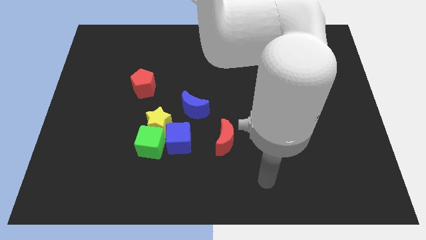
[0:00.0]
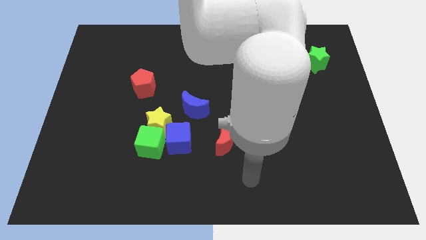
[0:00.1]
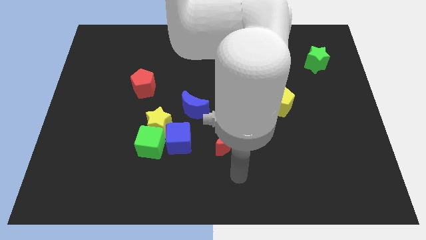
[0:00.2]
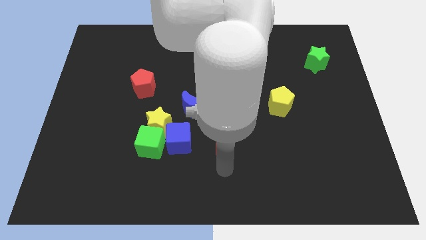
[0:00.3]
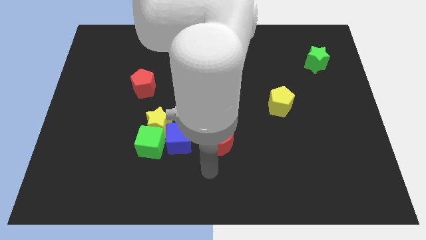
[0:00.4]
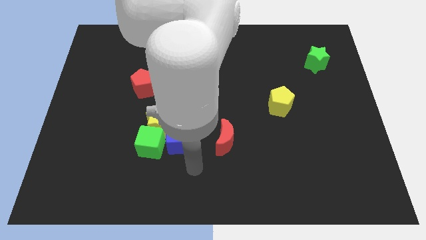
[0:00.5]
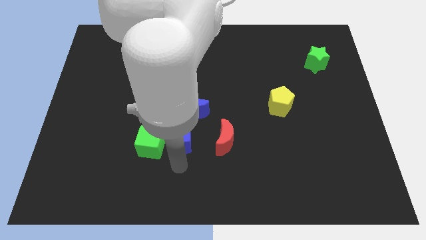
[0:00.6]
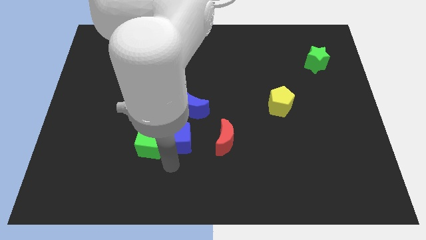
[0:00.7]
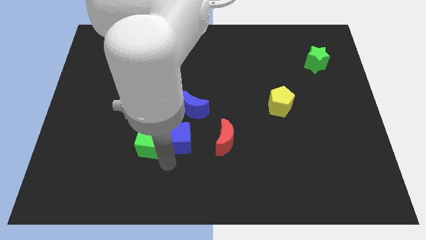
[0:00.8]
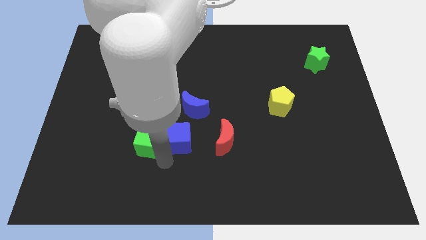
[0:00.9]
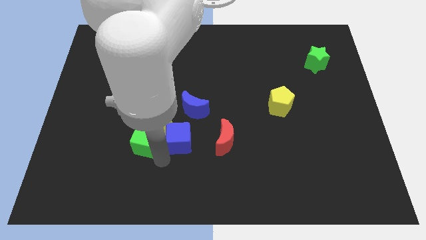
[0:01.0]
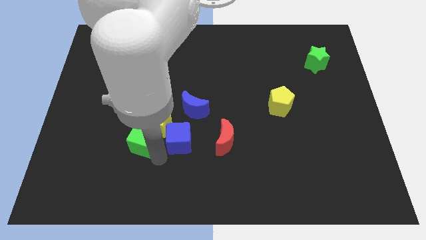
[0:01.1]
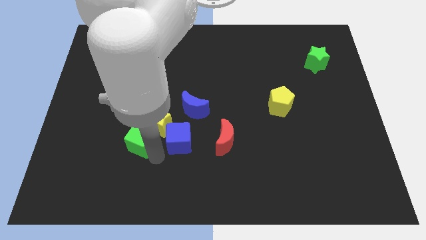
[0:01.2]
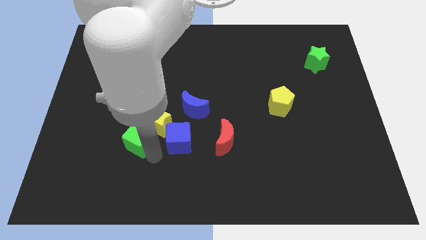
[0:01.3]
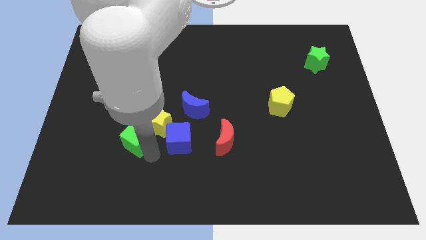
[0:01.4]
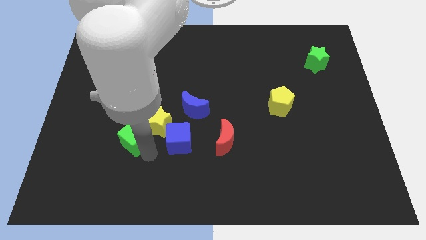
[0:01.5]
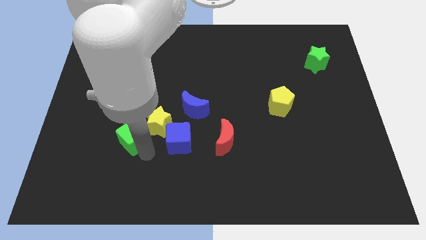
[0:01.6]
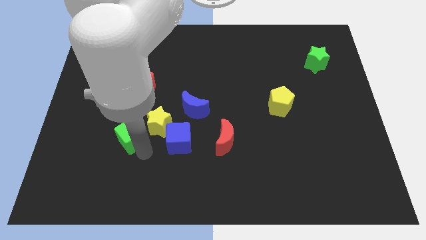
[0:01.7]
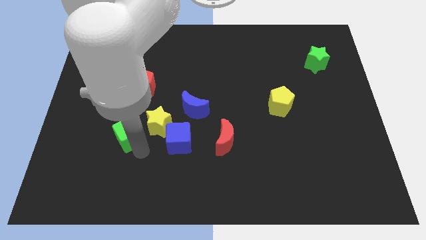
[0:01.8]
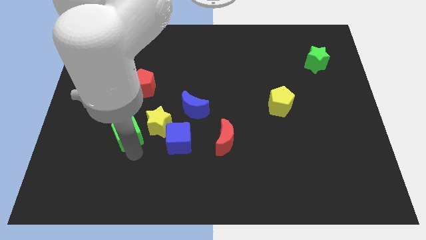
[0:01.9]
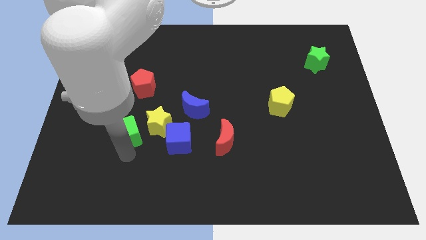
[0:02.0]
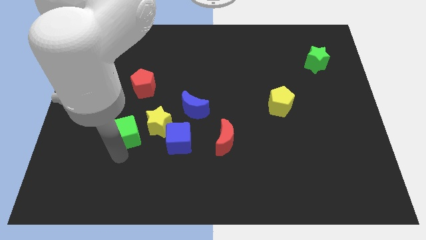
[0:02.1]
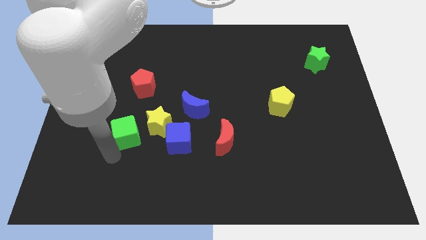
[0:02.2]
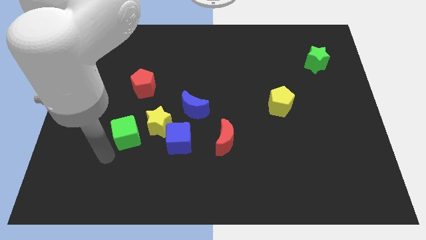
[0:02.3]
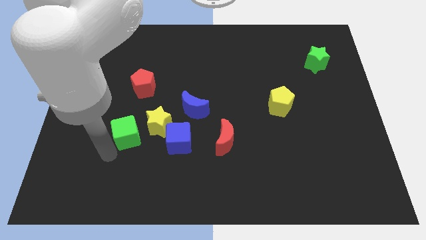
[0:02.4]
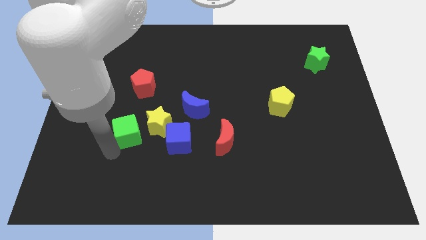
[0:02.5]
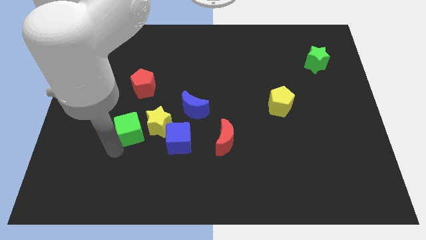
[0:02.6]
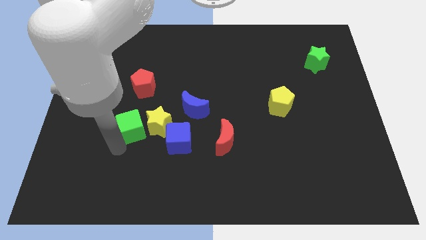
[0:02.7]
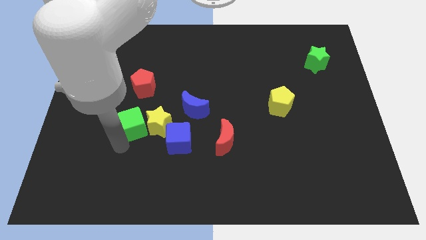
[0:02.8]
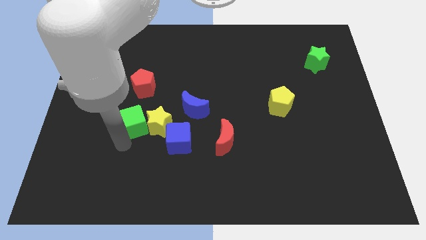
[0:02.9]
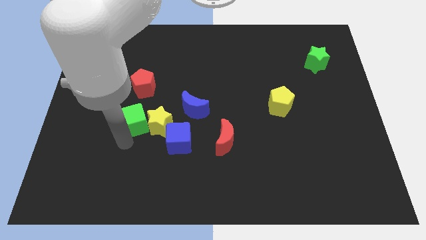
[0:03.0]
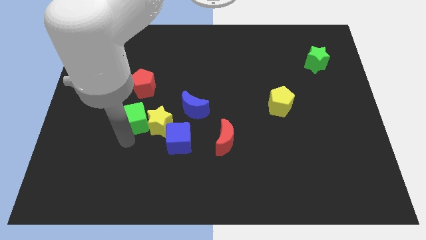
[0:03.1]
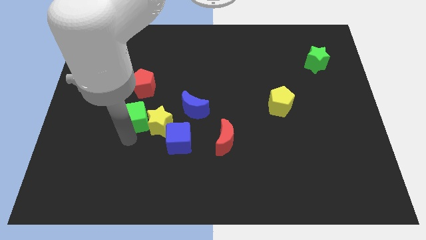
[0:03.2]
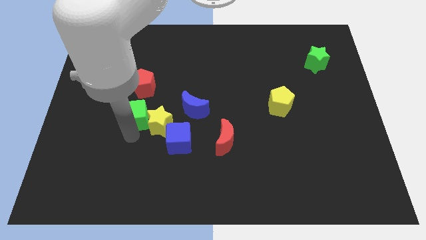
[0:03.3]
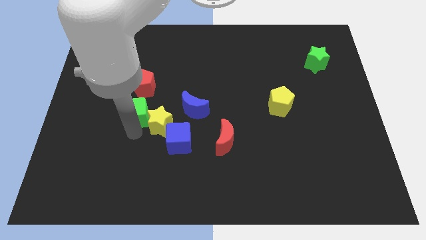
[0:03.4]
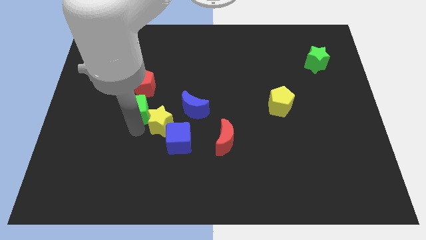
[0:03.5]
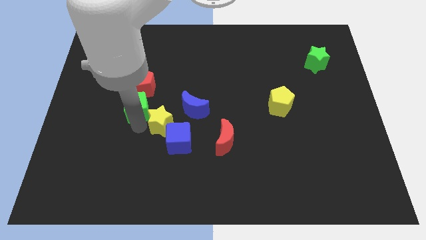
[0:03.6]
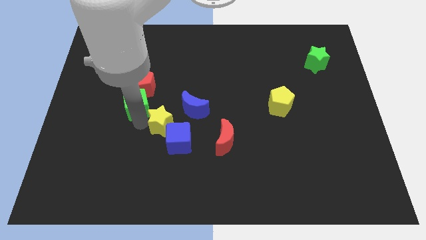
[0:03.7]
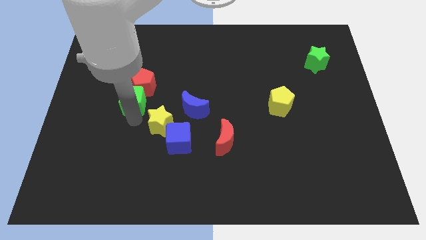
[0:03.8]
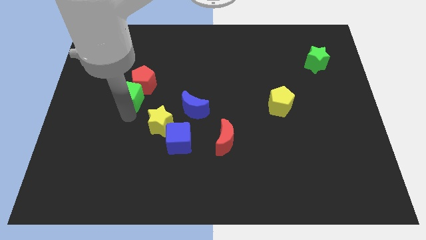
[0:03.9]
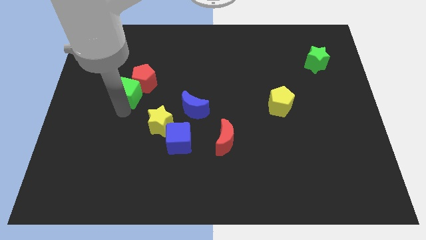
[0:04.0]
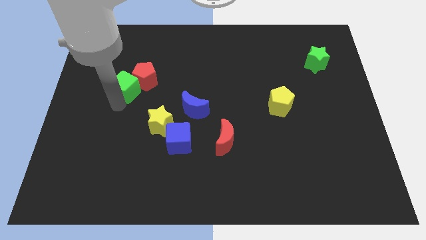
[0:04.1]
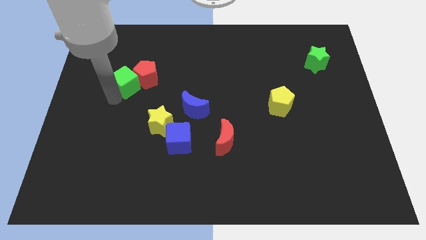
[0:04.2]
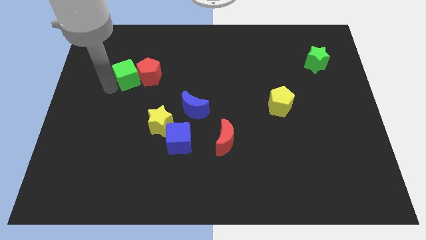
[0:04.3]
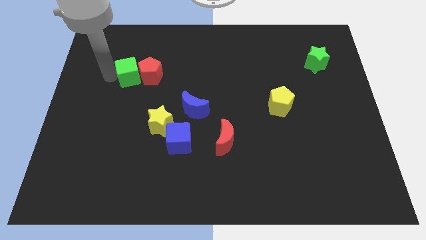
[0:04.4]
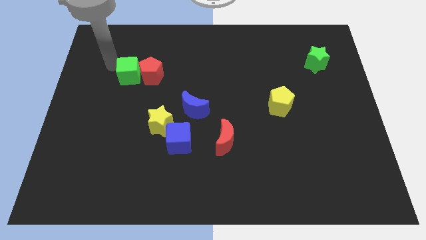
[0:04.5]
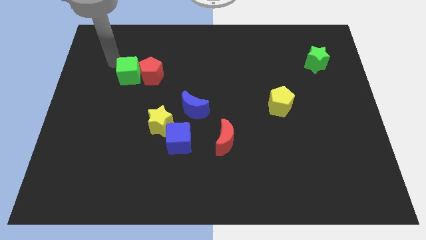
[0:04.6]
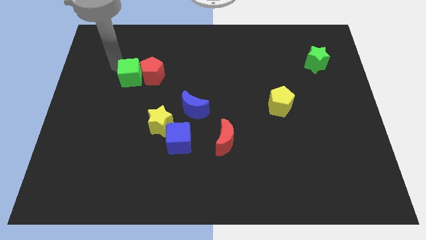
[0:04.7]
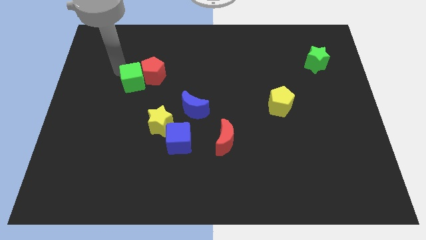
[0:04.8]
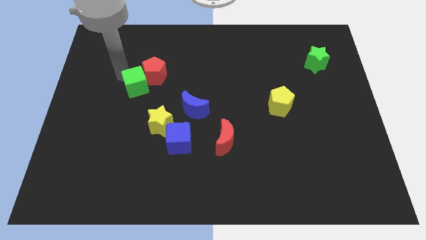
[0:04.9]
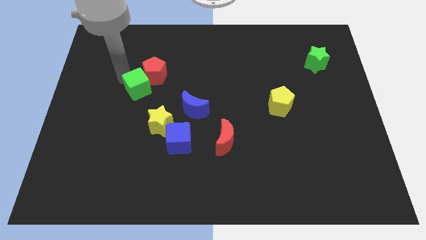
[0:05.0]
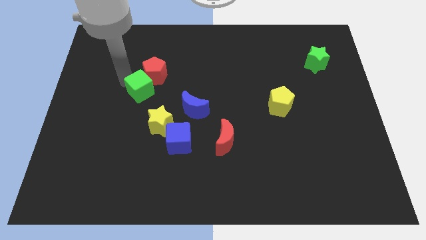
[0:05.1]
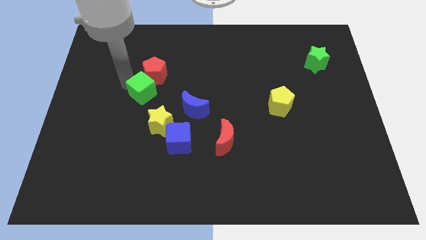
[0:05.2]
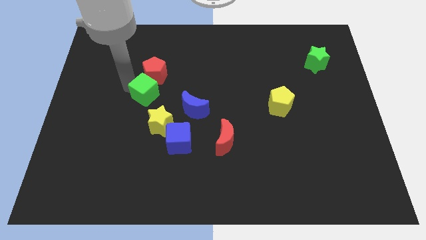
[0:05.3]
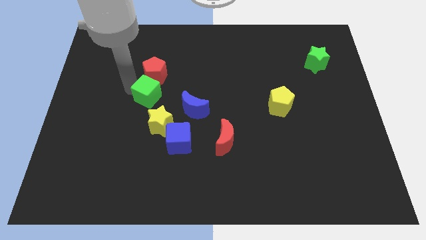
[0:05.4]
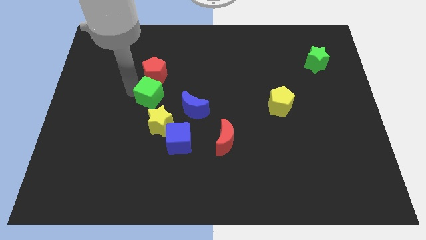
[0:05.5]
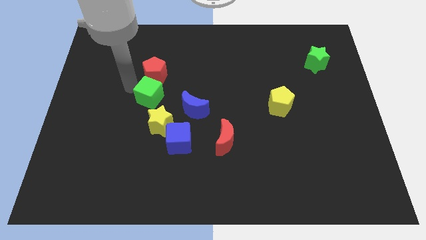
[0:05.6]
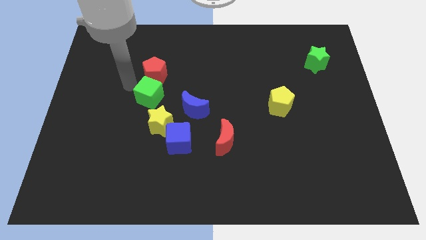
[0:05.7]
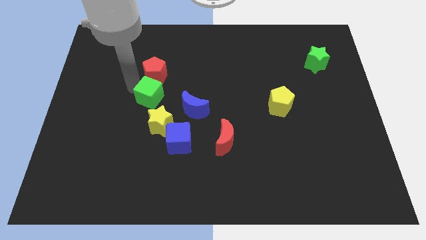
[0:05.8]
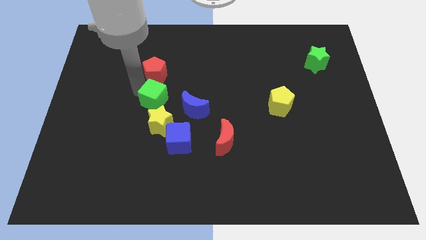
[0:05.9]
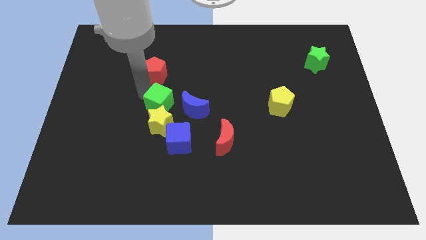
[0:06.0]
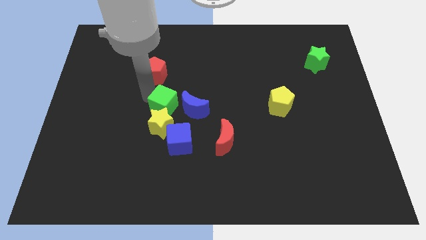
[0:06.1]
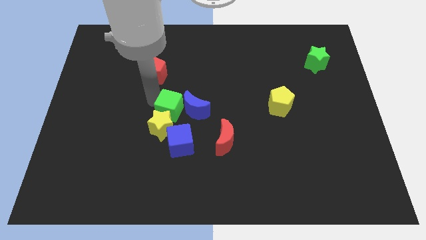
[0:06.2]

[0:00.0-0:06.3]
move the green cube close to the blue moon
